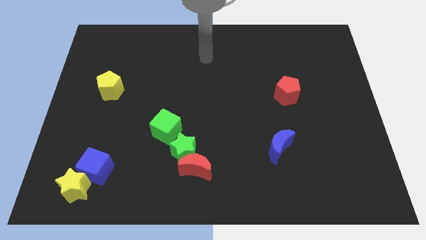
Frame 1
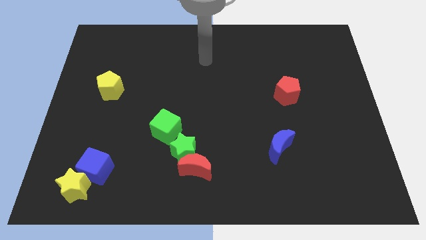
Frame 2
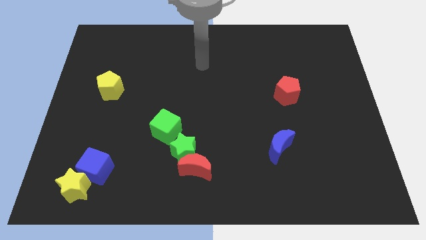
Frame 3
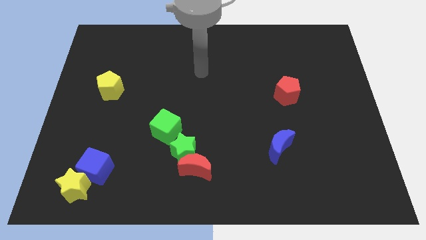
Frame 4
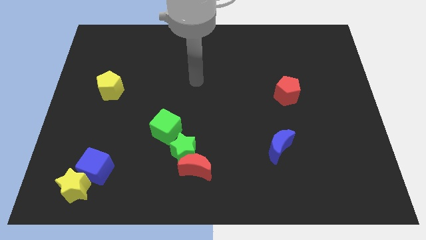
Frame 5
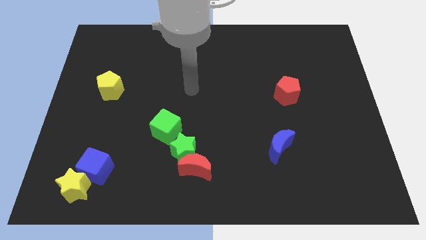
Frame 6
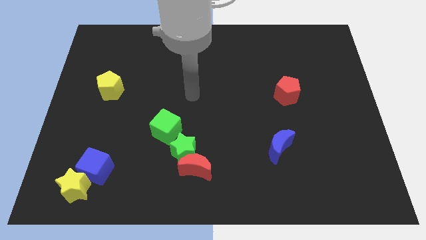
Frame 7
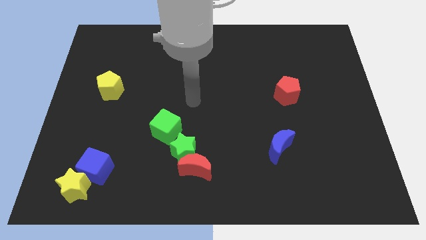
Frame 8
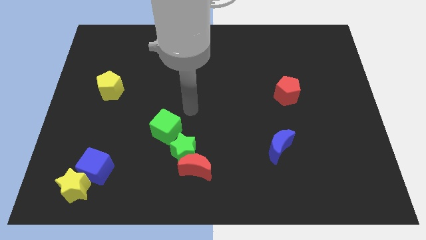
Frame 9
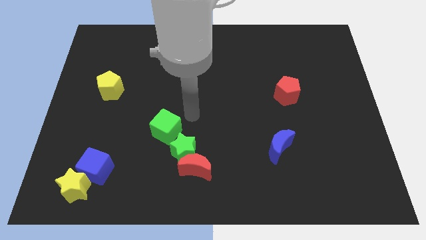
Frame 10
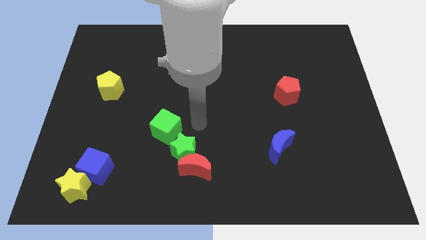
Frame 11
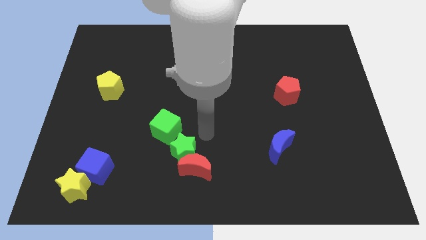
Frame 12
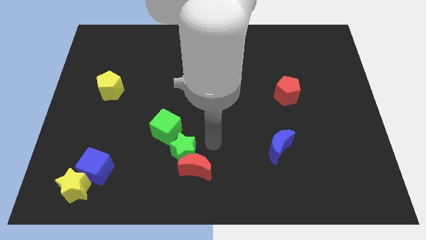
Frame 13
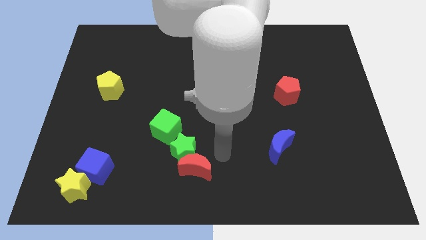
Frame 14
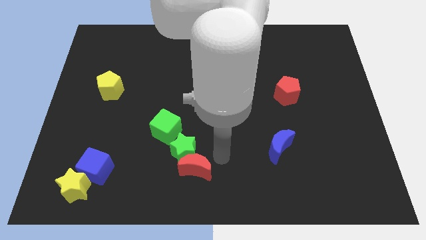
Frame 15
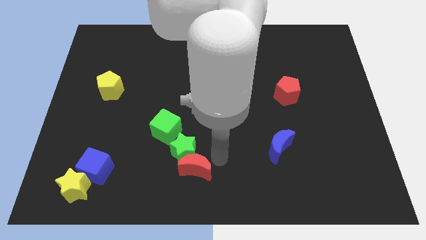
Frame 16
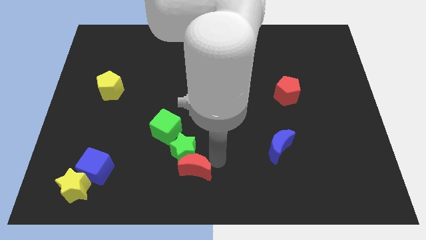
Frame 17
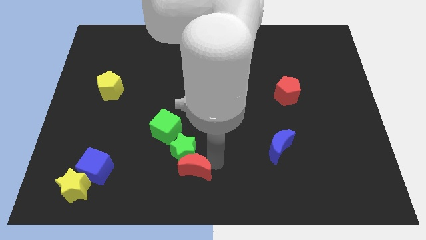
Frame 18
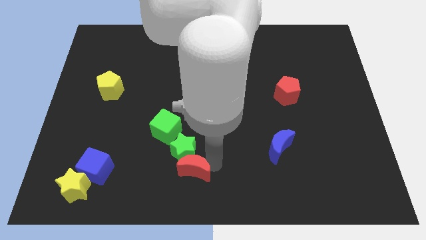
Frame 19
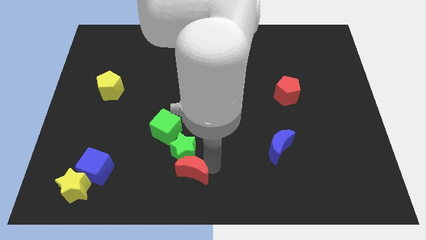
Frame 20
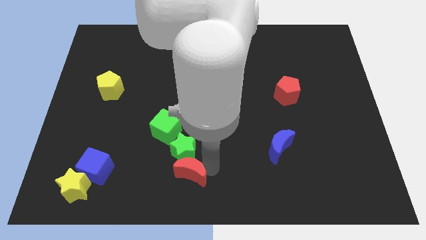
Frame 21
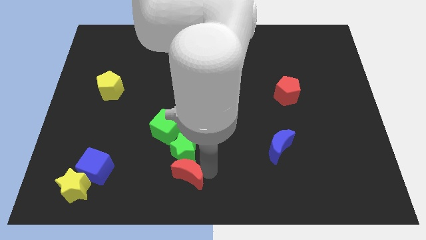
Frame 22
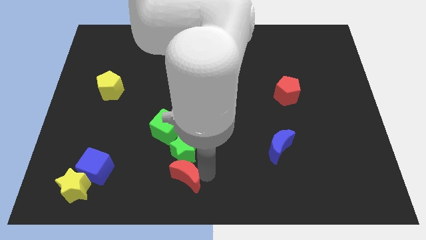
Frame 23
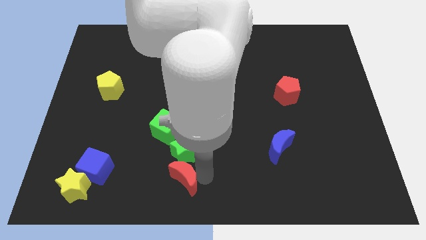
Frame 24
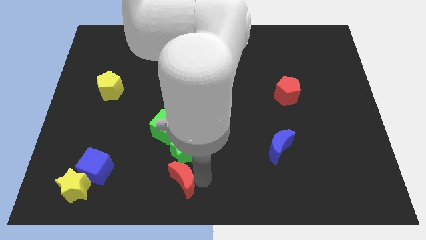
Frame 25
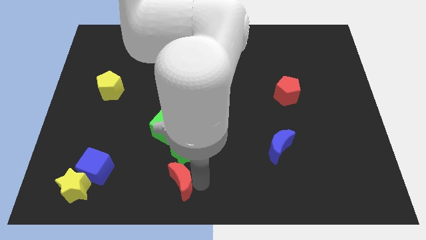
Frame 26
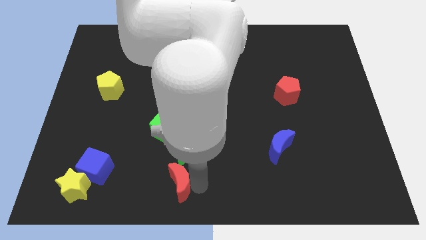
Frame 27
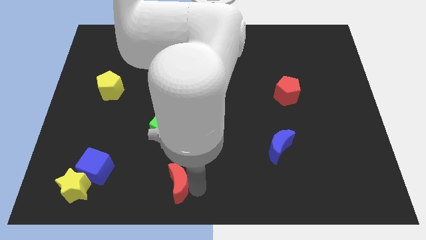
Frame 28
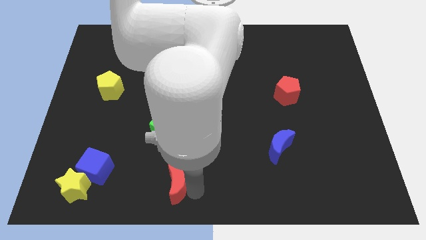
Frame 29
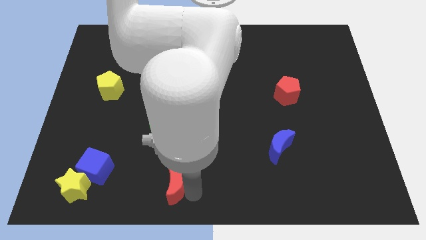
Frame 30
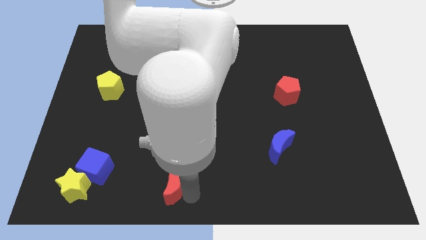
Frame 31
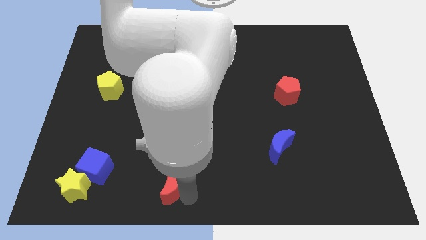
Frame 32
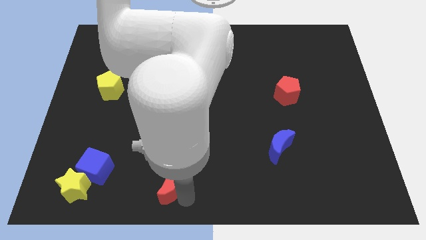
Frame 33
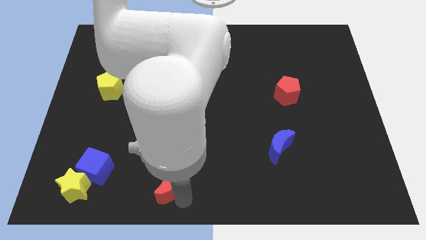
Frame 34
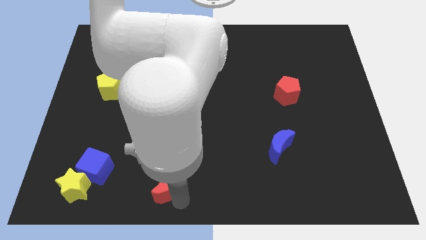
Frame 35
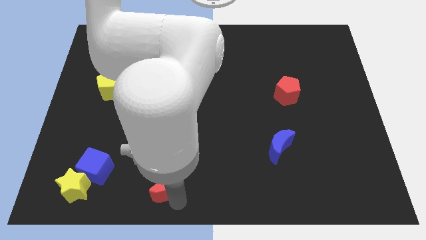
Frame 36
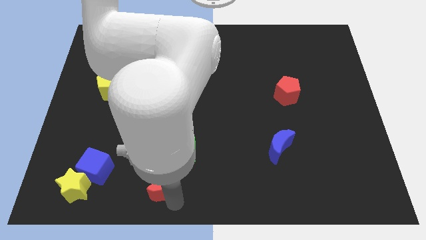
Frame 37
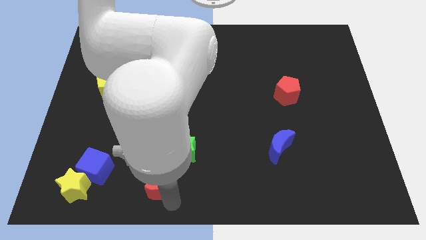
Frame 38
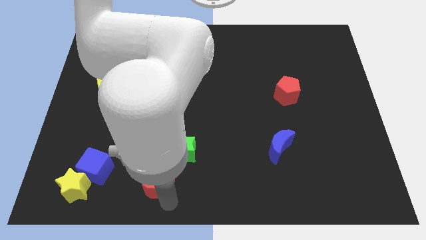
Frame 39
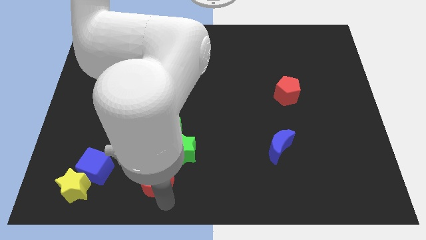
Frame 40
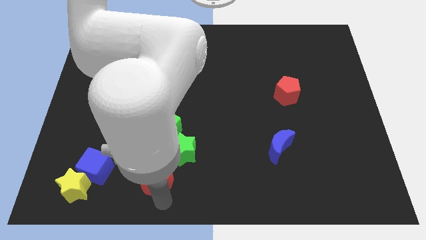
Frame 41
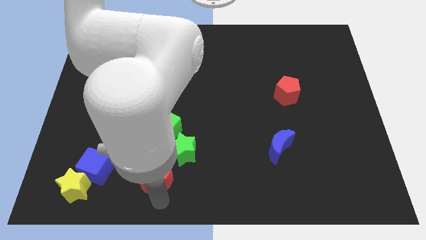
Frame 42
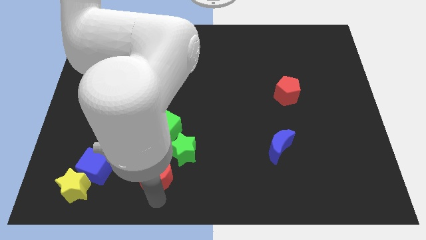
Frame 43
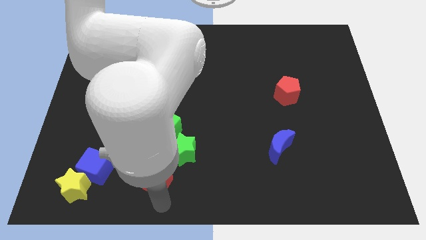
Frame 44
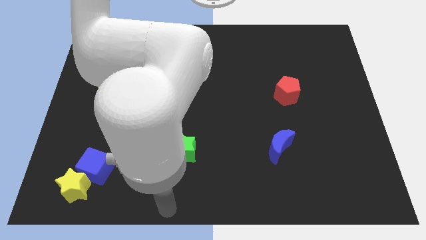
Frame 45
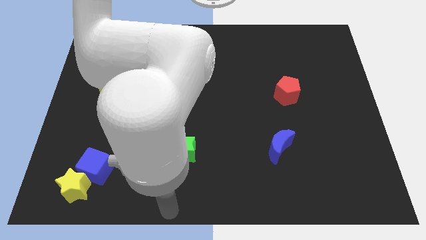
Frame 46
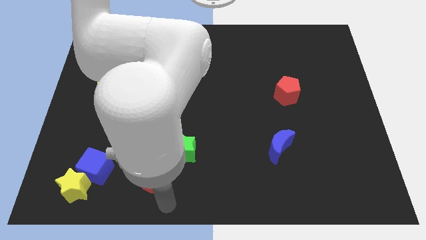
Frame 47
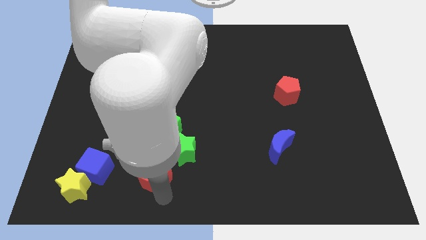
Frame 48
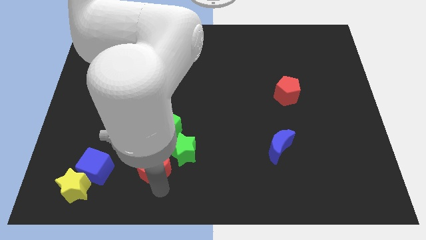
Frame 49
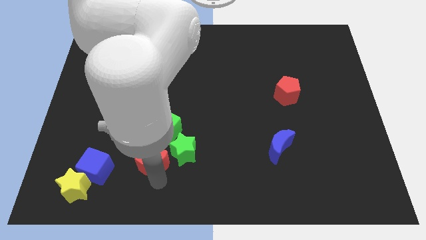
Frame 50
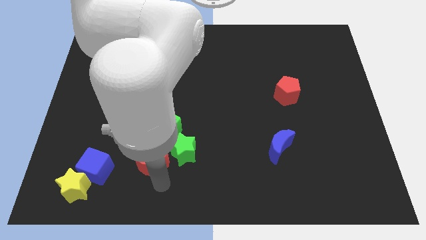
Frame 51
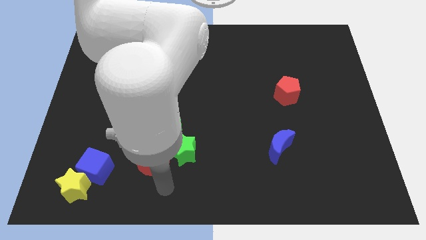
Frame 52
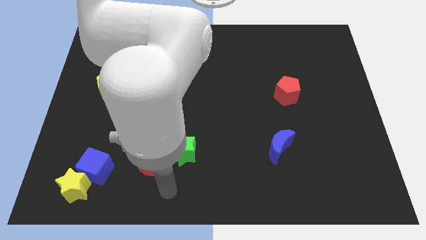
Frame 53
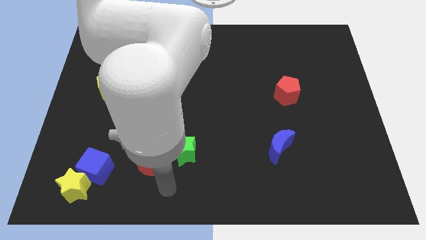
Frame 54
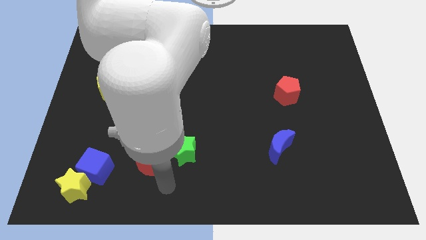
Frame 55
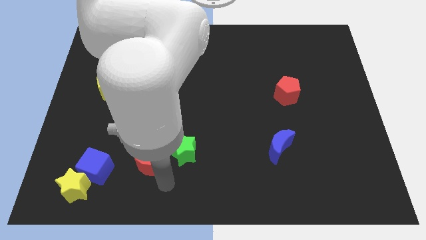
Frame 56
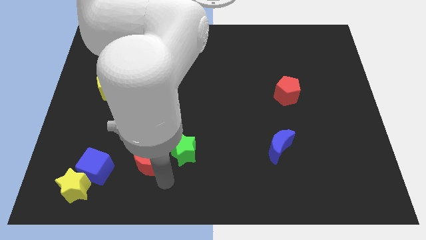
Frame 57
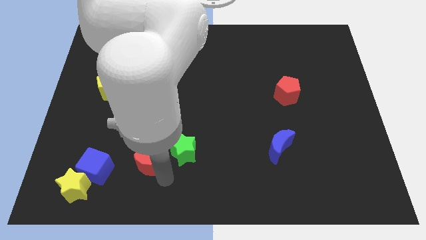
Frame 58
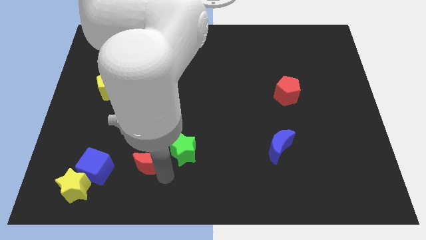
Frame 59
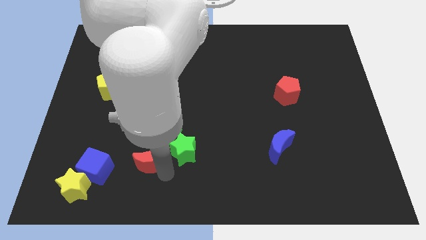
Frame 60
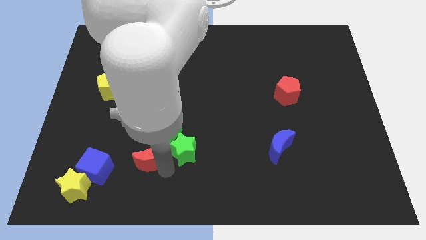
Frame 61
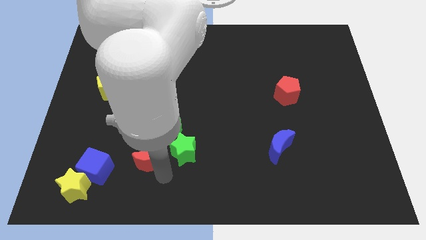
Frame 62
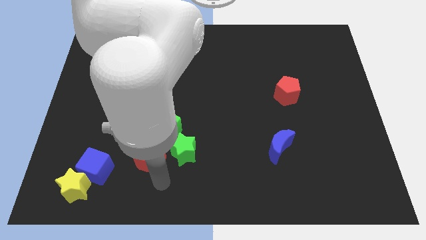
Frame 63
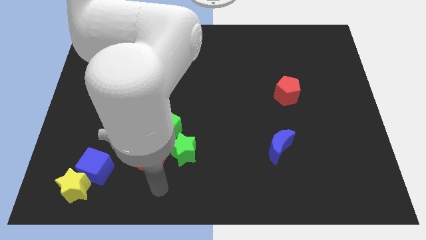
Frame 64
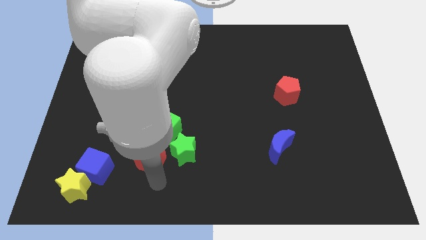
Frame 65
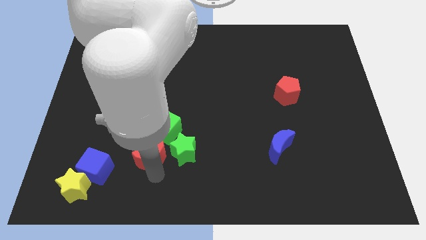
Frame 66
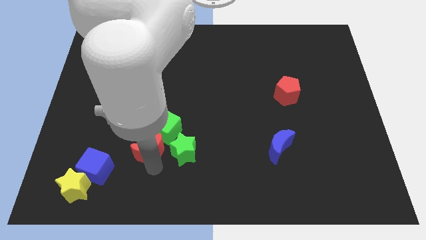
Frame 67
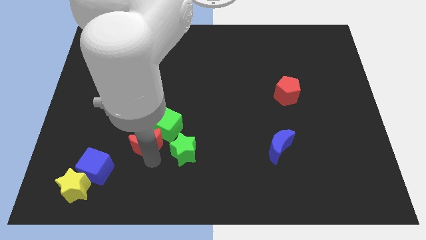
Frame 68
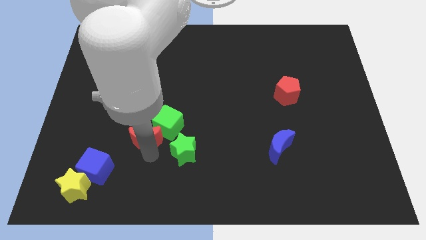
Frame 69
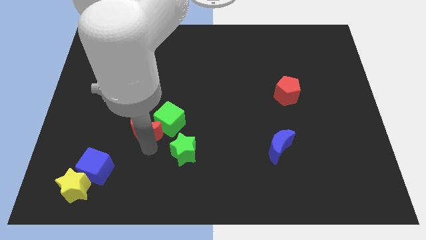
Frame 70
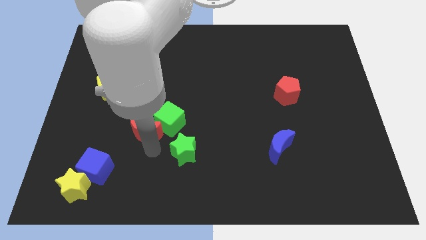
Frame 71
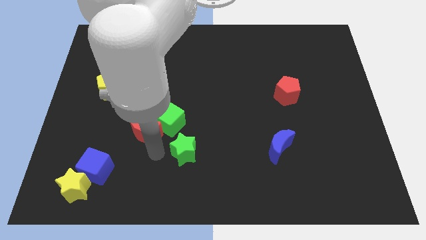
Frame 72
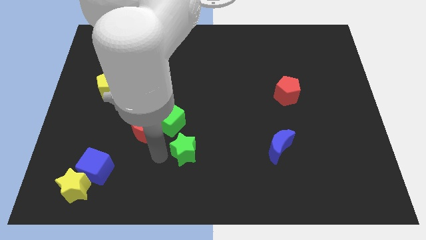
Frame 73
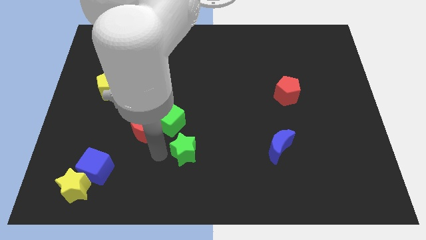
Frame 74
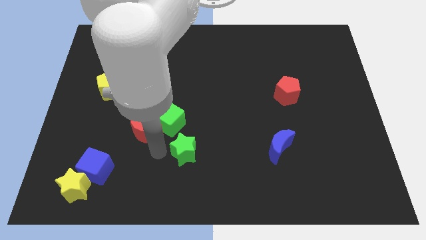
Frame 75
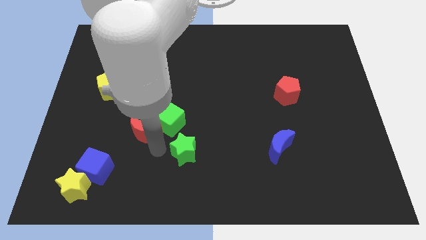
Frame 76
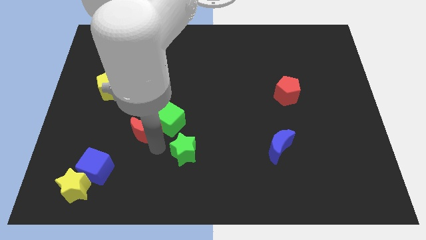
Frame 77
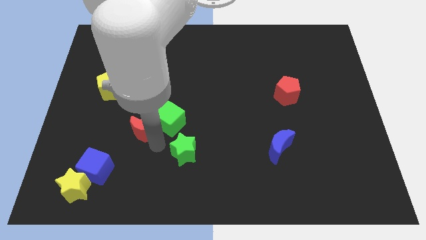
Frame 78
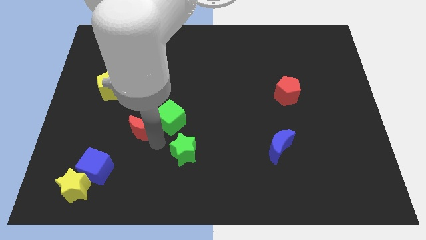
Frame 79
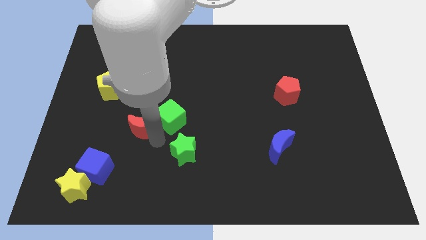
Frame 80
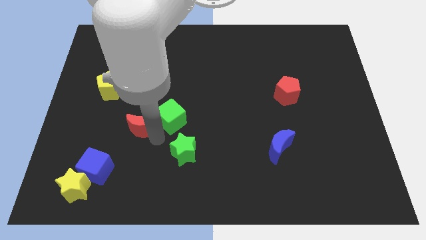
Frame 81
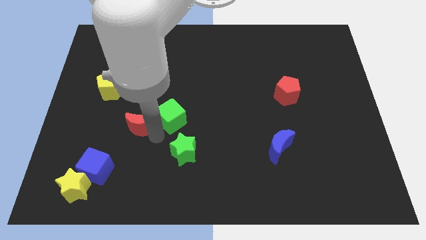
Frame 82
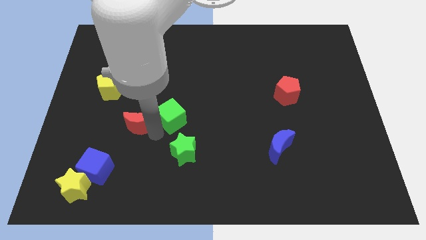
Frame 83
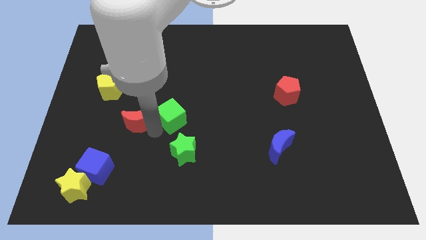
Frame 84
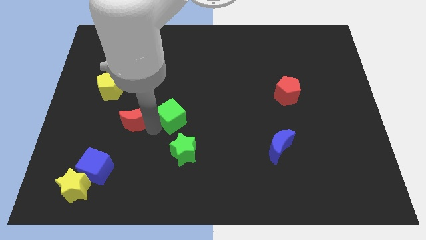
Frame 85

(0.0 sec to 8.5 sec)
move the red moon to the bottom right side of the yellow pentagon
